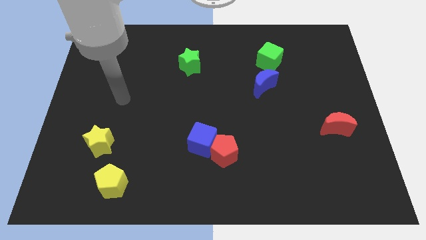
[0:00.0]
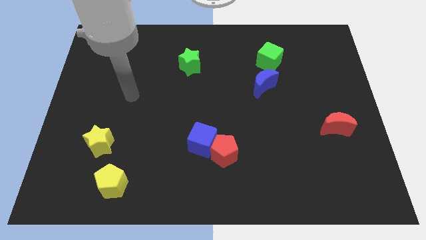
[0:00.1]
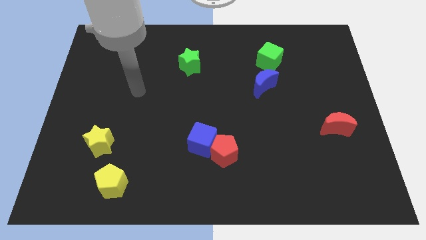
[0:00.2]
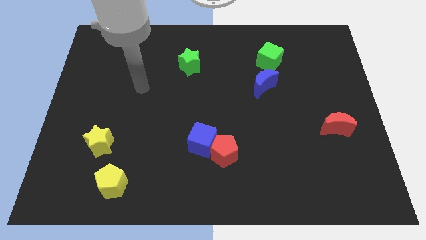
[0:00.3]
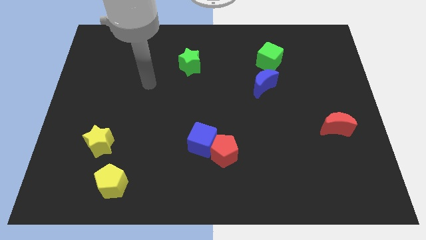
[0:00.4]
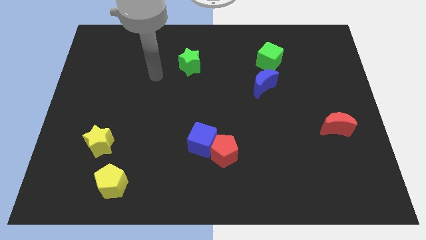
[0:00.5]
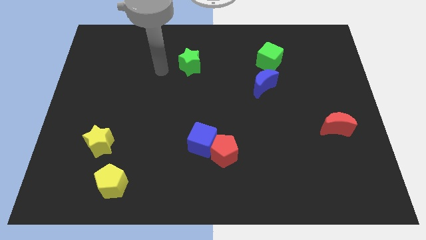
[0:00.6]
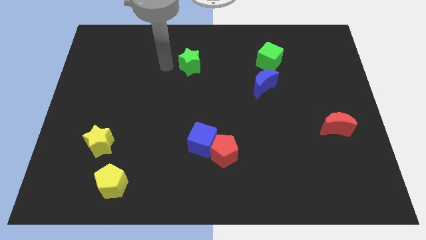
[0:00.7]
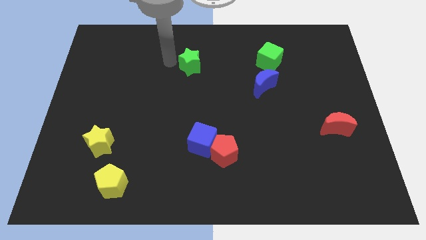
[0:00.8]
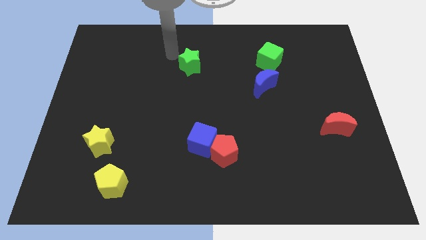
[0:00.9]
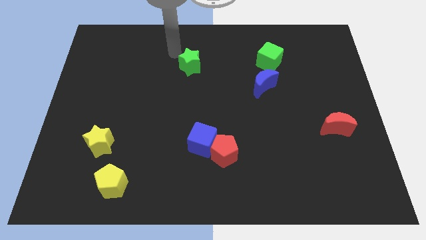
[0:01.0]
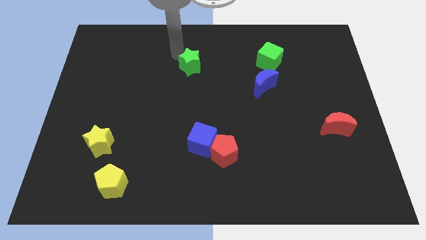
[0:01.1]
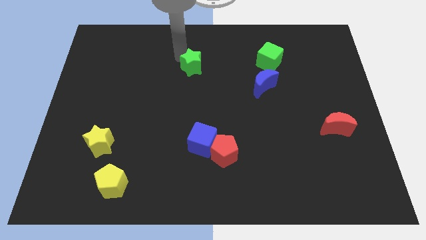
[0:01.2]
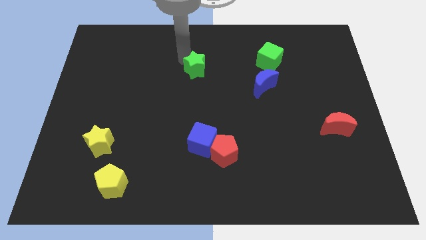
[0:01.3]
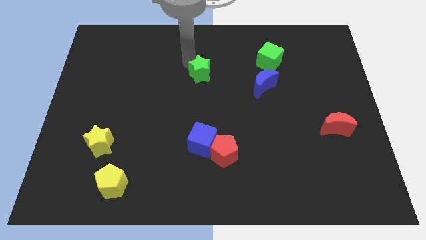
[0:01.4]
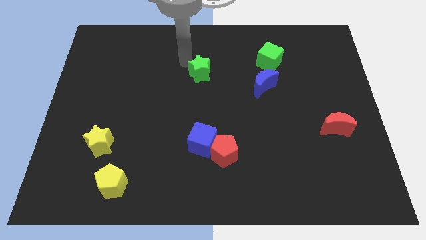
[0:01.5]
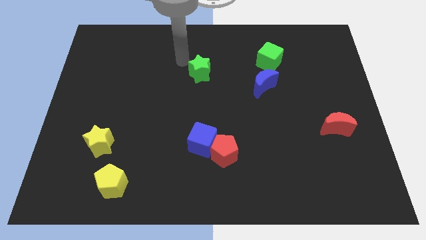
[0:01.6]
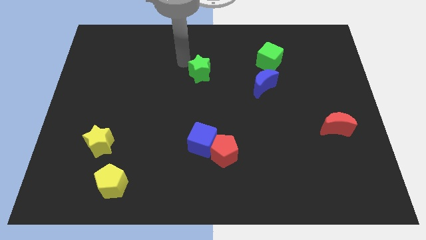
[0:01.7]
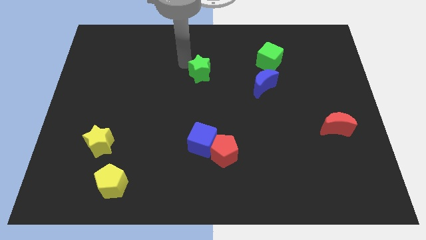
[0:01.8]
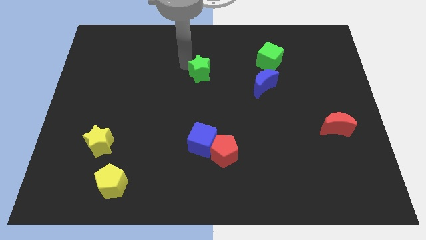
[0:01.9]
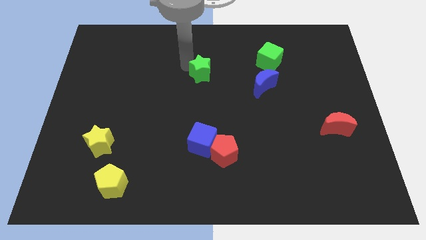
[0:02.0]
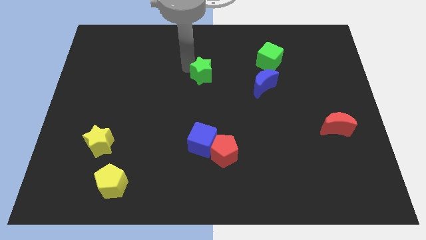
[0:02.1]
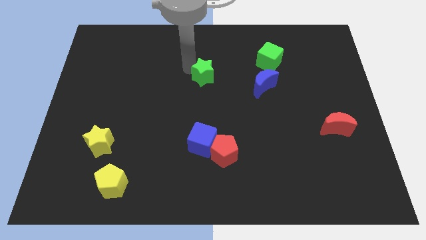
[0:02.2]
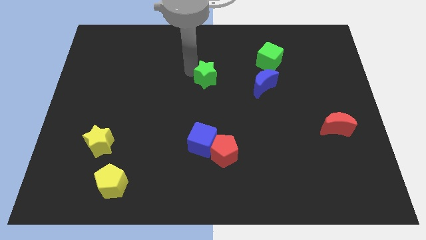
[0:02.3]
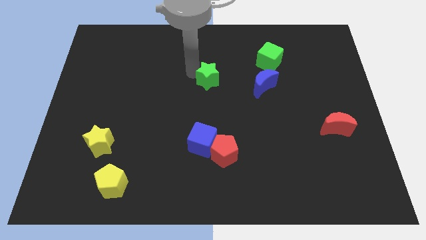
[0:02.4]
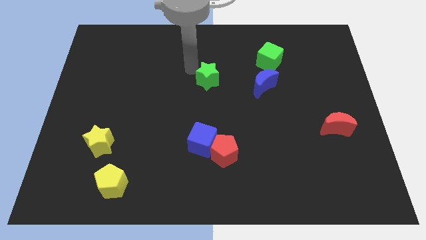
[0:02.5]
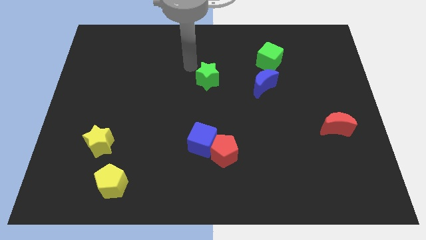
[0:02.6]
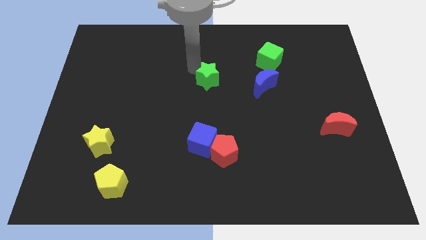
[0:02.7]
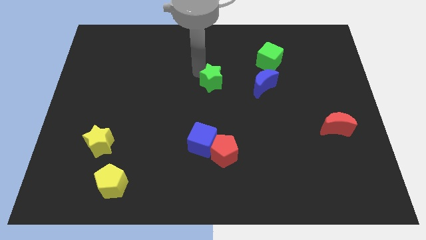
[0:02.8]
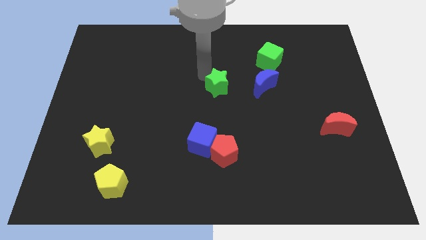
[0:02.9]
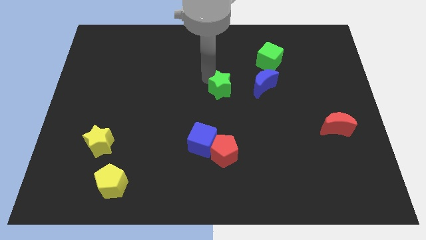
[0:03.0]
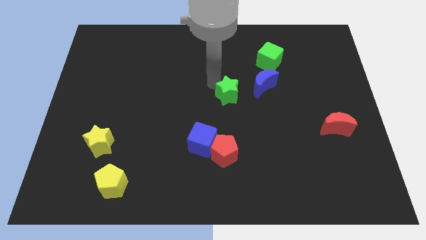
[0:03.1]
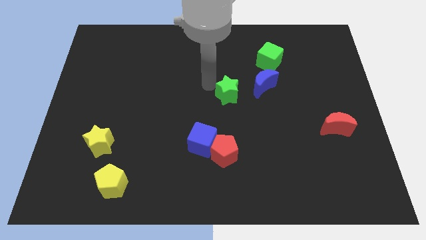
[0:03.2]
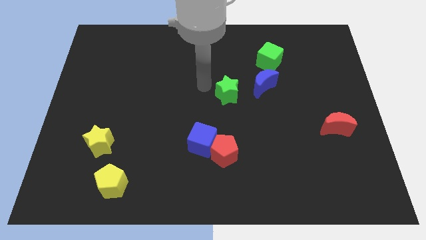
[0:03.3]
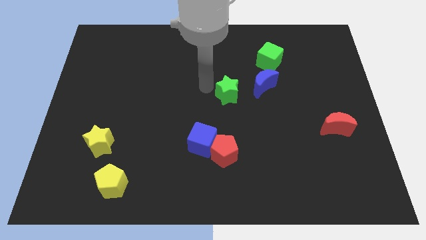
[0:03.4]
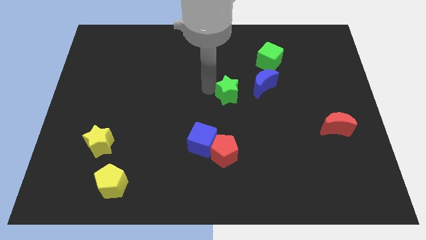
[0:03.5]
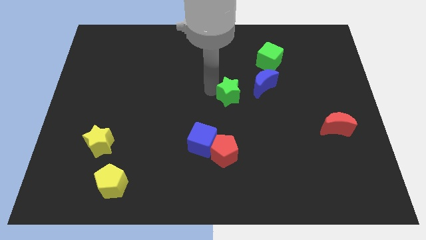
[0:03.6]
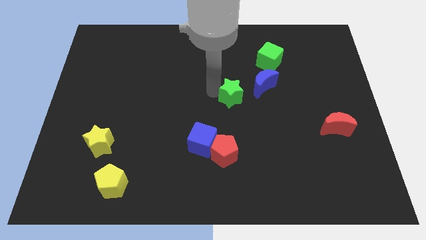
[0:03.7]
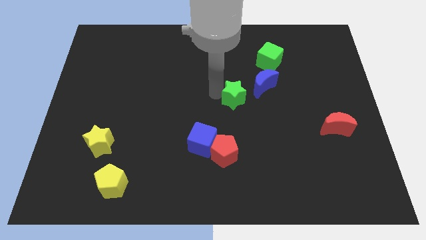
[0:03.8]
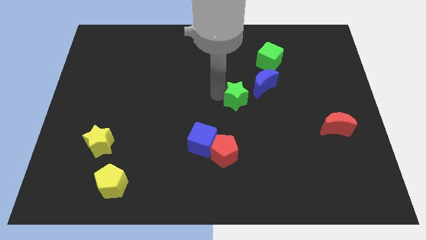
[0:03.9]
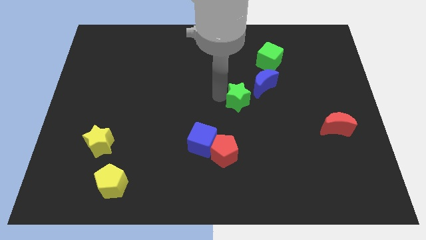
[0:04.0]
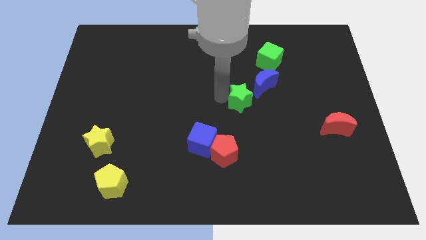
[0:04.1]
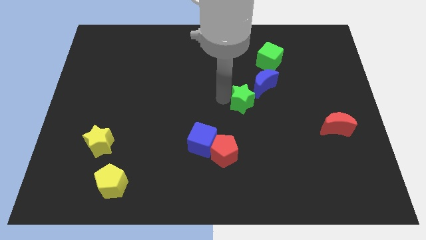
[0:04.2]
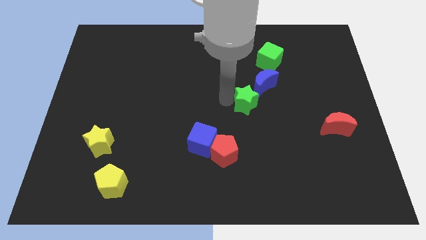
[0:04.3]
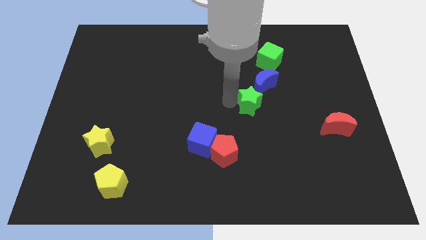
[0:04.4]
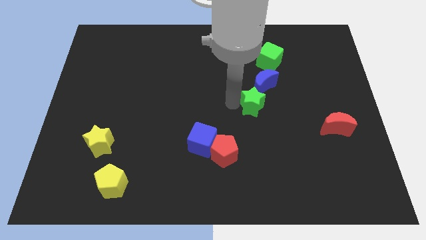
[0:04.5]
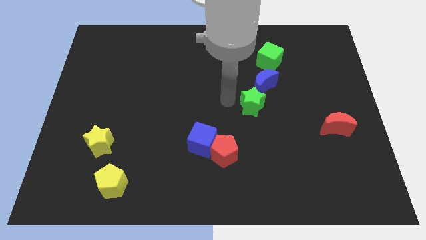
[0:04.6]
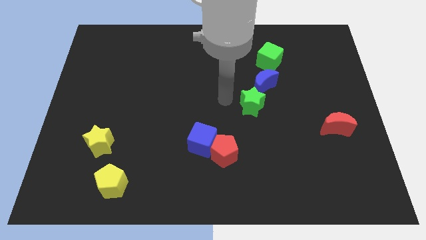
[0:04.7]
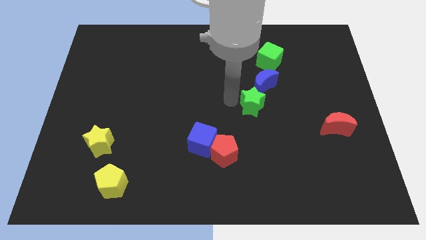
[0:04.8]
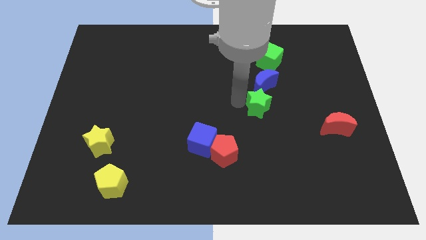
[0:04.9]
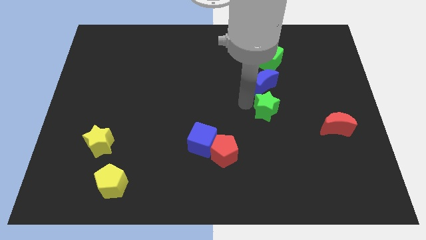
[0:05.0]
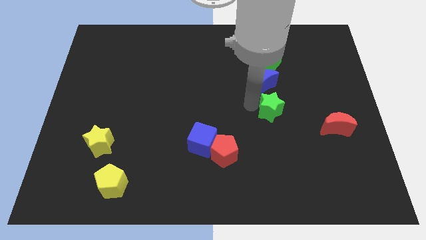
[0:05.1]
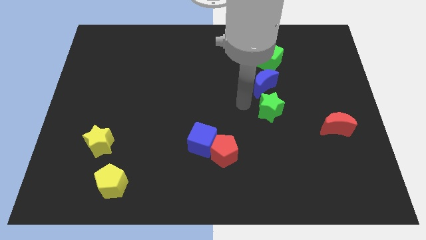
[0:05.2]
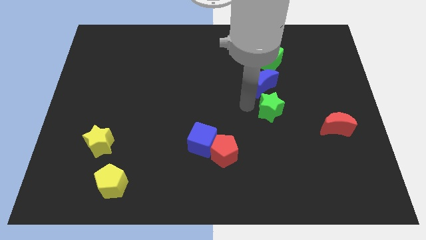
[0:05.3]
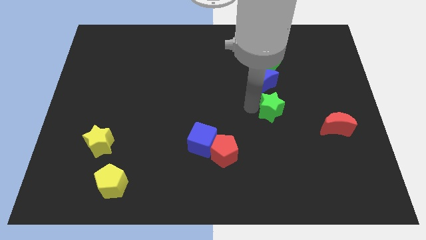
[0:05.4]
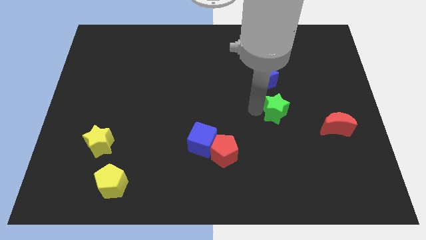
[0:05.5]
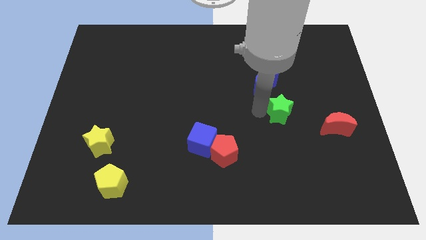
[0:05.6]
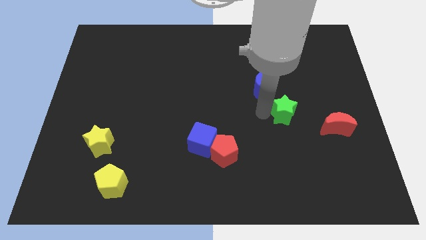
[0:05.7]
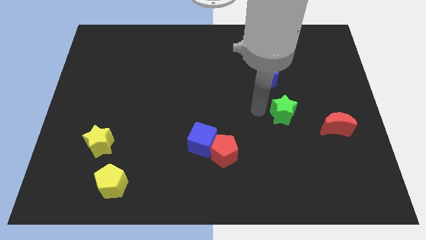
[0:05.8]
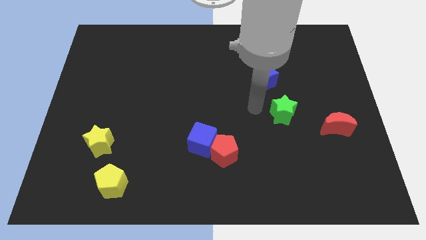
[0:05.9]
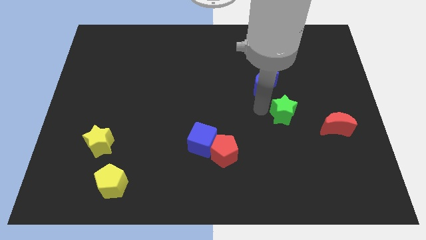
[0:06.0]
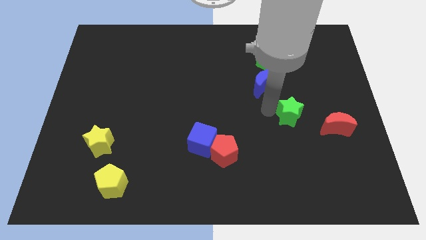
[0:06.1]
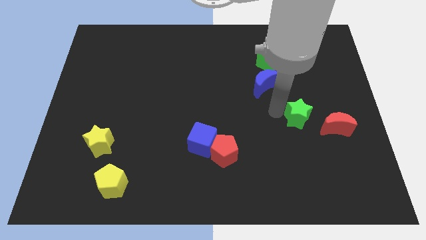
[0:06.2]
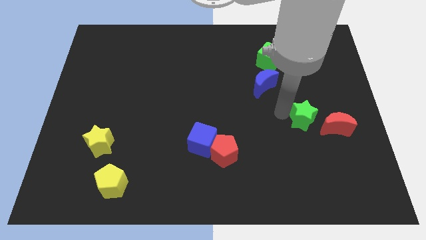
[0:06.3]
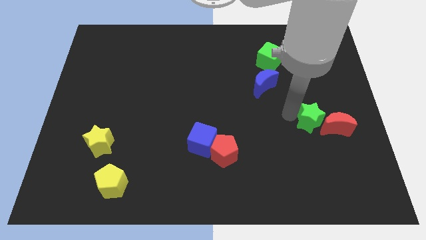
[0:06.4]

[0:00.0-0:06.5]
push the green star next to the red moon

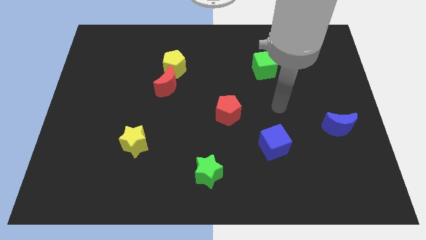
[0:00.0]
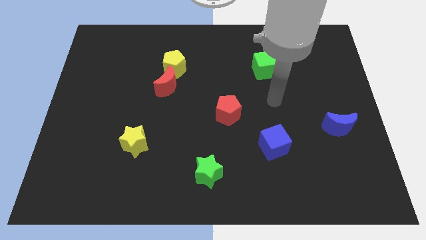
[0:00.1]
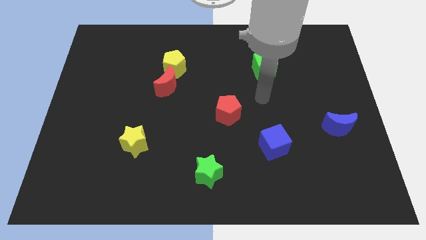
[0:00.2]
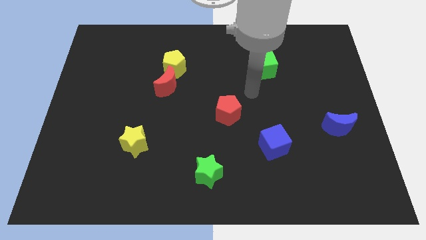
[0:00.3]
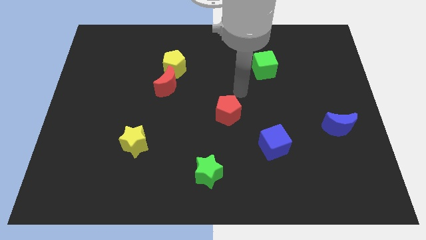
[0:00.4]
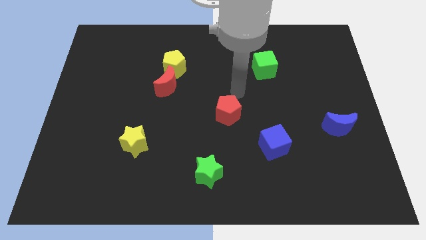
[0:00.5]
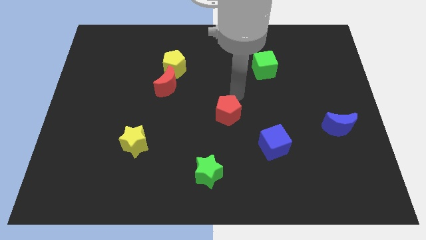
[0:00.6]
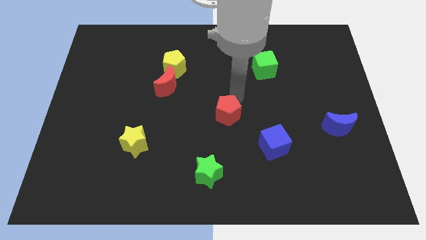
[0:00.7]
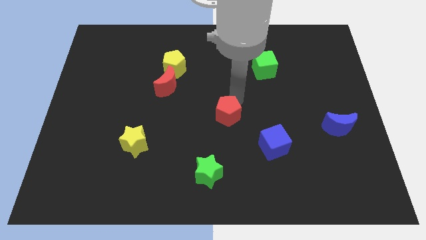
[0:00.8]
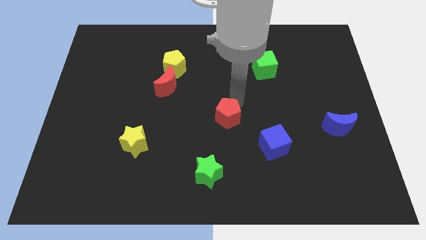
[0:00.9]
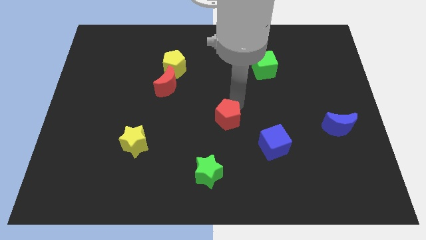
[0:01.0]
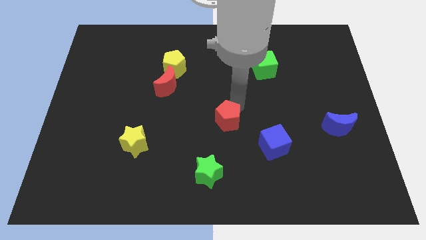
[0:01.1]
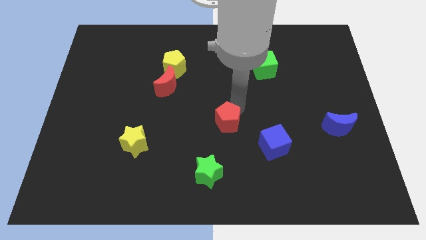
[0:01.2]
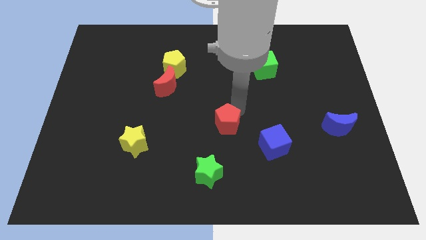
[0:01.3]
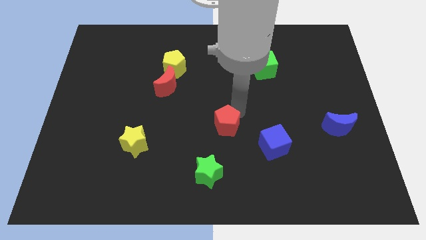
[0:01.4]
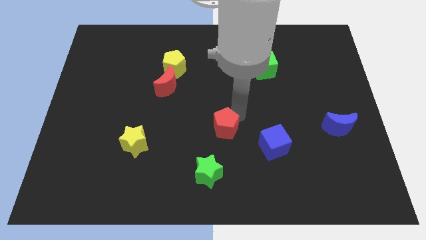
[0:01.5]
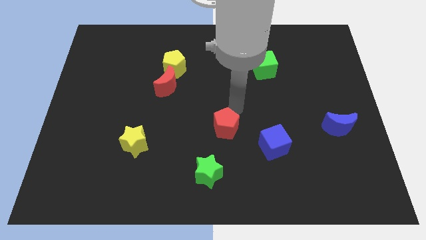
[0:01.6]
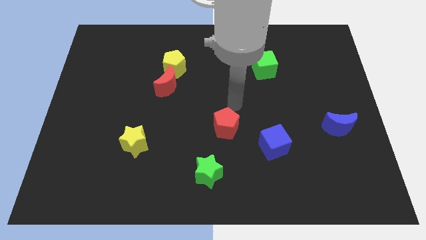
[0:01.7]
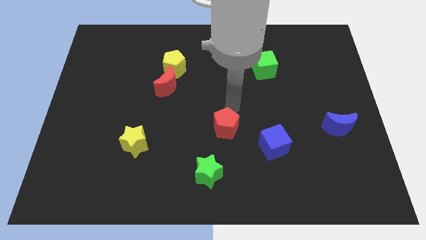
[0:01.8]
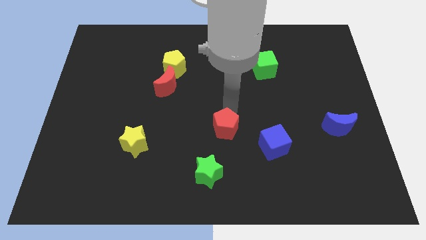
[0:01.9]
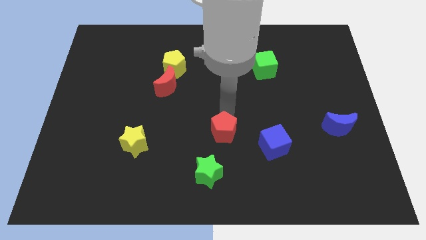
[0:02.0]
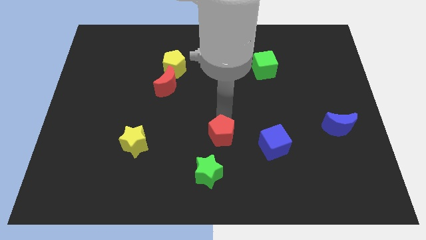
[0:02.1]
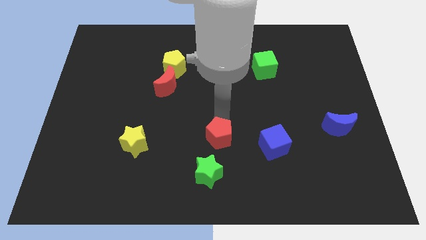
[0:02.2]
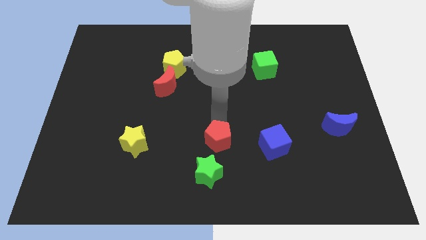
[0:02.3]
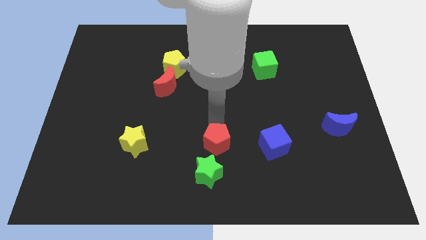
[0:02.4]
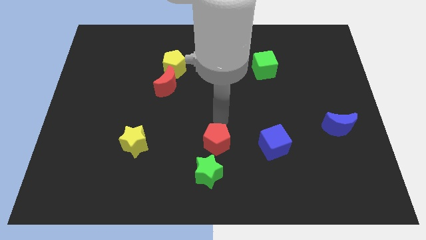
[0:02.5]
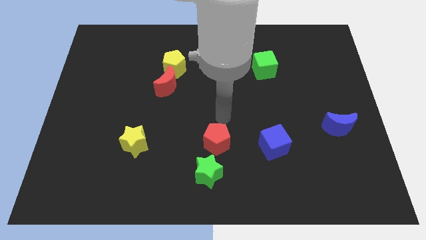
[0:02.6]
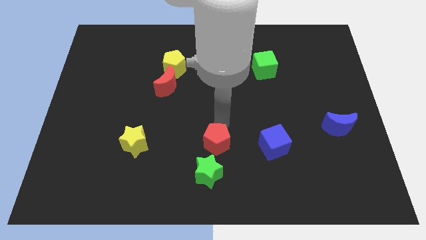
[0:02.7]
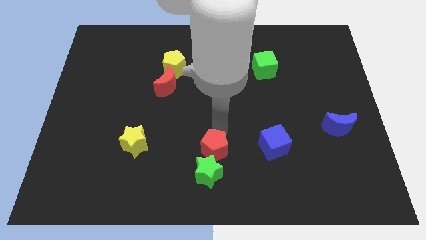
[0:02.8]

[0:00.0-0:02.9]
push the red pentagon to the green star
